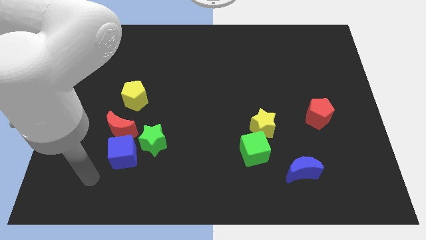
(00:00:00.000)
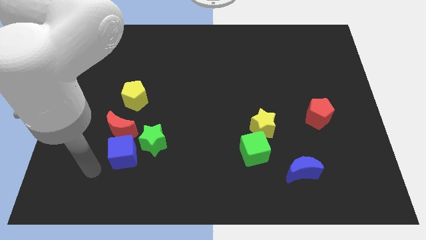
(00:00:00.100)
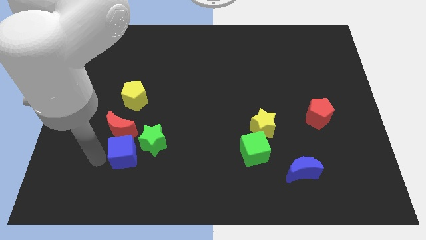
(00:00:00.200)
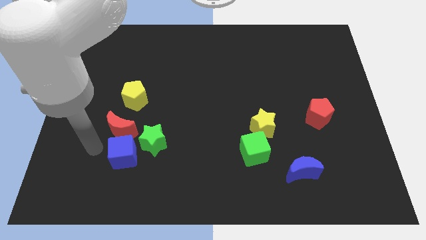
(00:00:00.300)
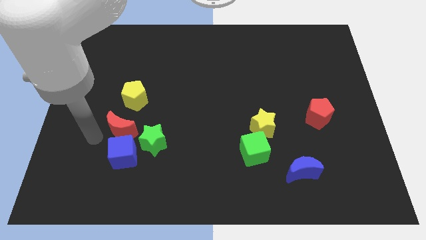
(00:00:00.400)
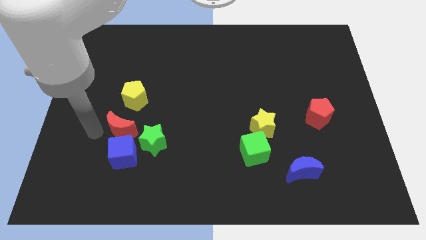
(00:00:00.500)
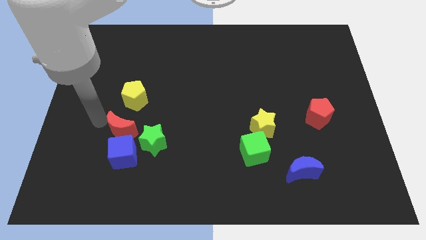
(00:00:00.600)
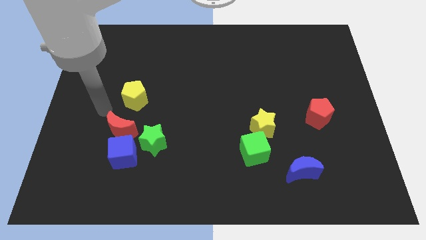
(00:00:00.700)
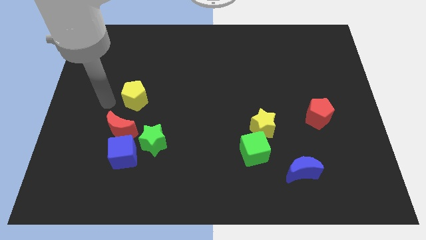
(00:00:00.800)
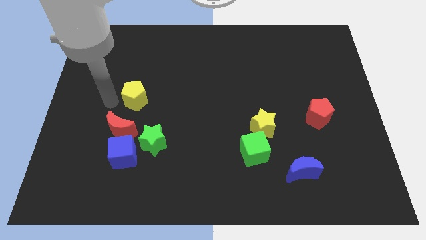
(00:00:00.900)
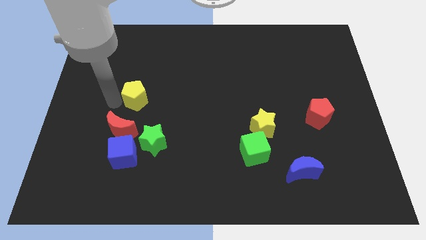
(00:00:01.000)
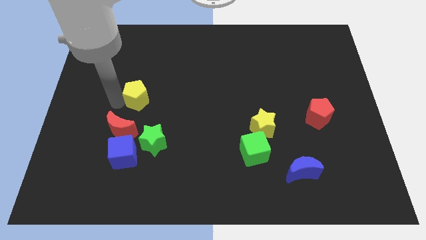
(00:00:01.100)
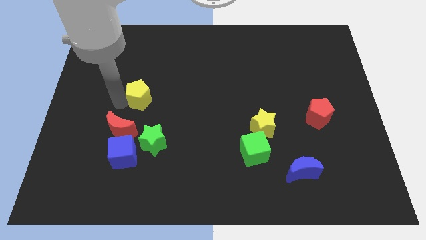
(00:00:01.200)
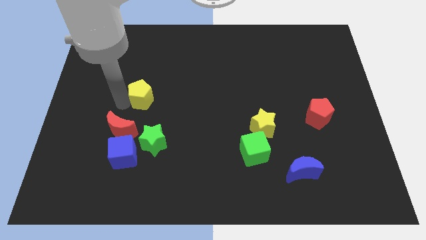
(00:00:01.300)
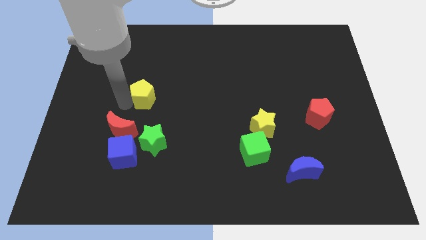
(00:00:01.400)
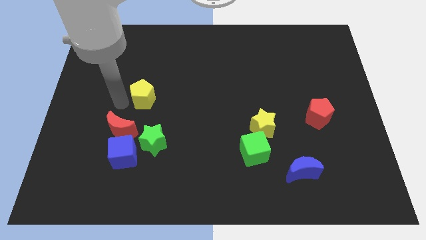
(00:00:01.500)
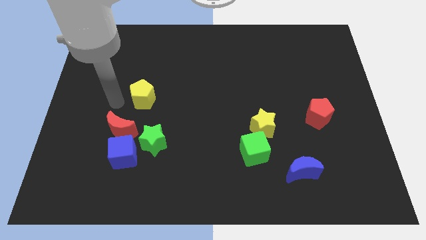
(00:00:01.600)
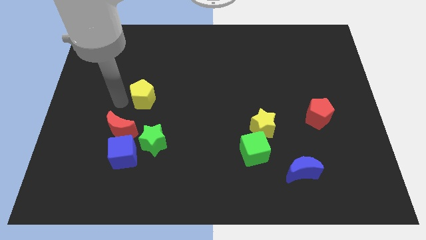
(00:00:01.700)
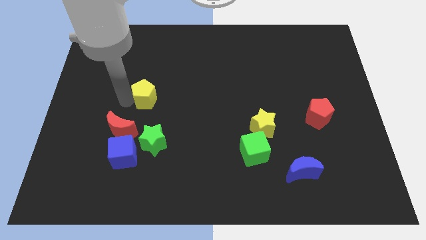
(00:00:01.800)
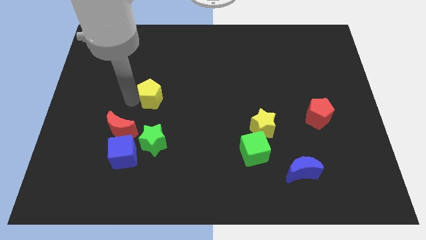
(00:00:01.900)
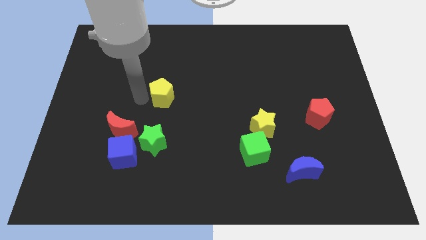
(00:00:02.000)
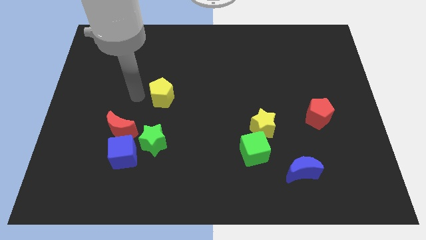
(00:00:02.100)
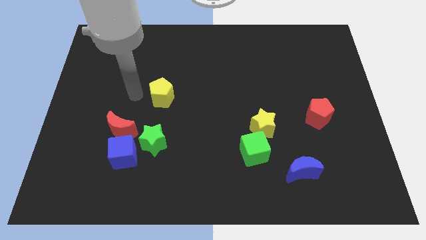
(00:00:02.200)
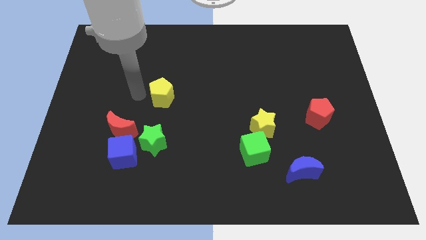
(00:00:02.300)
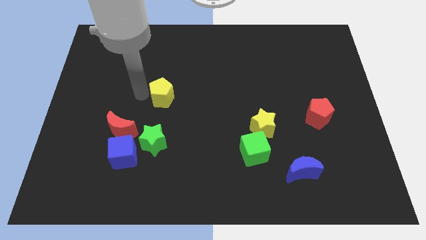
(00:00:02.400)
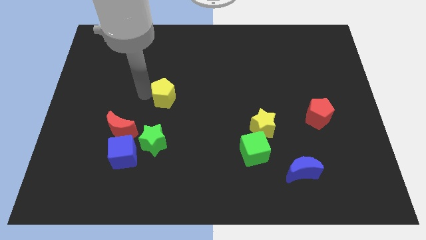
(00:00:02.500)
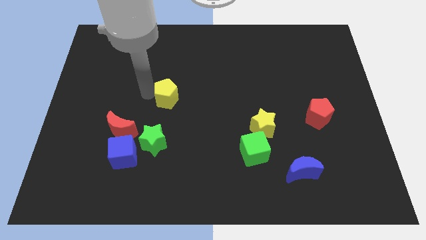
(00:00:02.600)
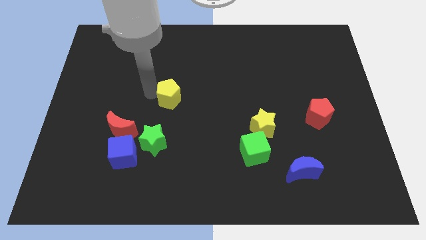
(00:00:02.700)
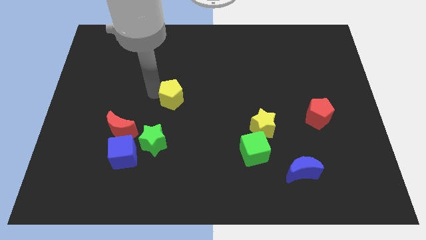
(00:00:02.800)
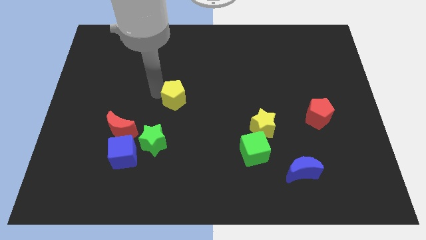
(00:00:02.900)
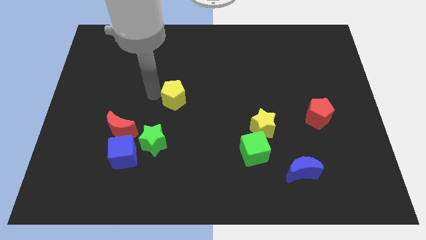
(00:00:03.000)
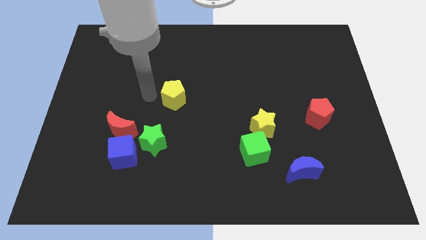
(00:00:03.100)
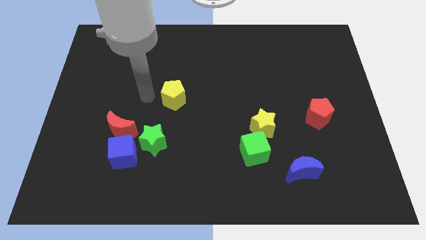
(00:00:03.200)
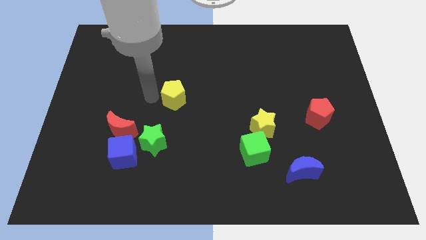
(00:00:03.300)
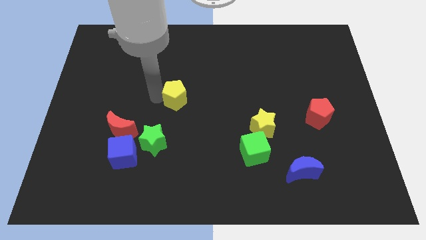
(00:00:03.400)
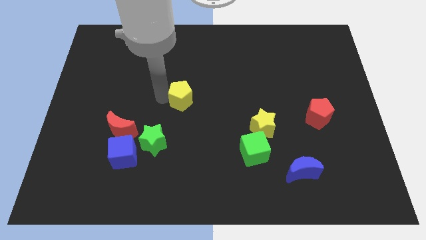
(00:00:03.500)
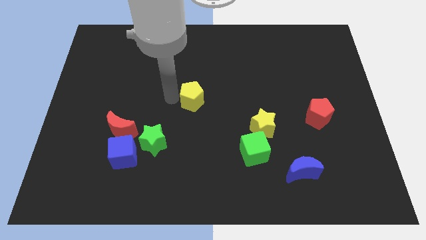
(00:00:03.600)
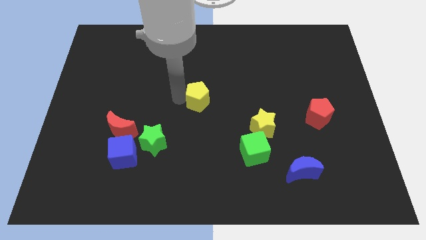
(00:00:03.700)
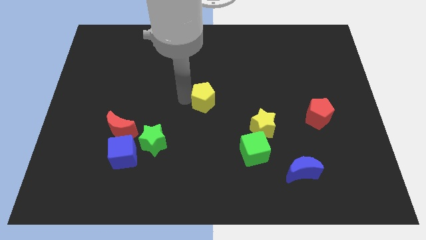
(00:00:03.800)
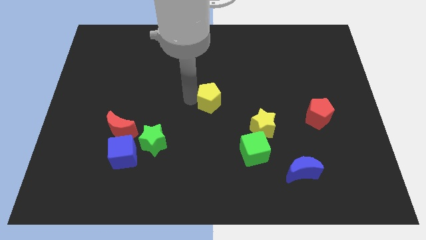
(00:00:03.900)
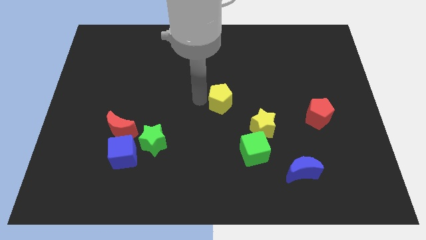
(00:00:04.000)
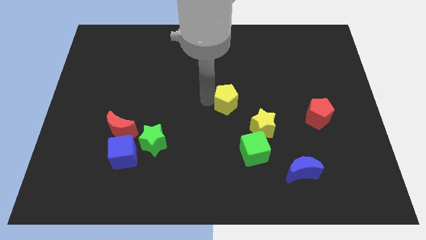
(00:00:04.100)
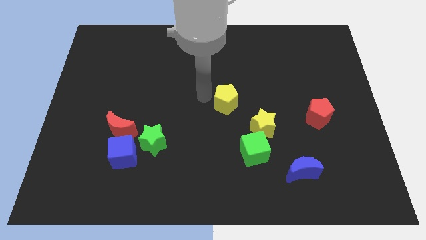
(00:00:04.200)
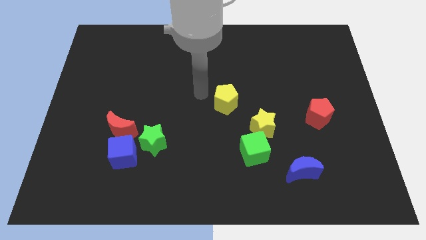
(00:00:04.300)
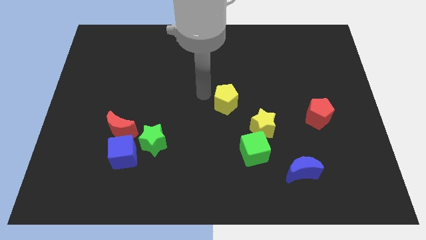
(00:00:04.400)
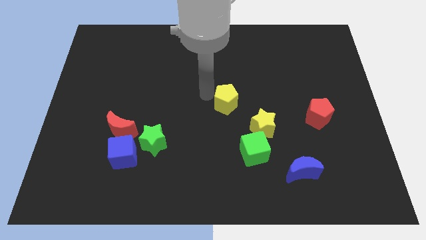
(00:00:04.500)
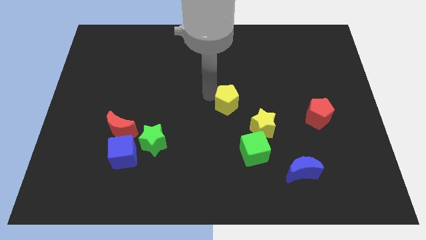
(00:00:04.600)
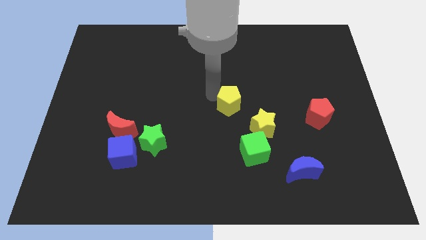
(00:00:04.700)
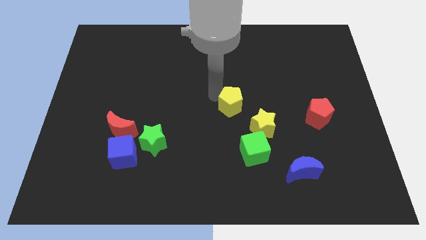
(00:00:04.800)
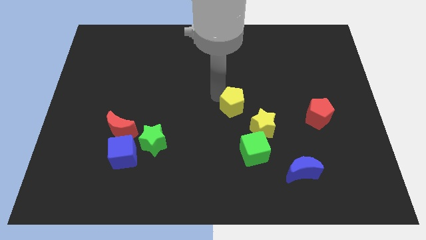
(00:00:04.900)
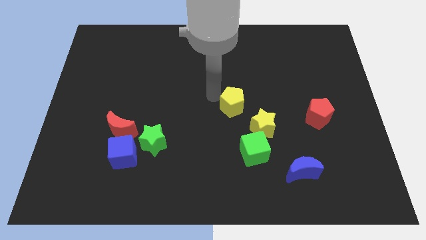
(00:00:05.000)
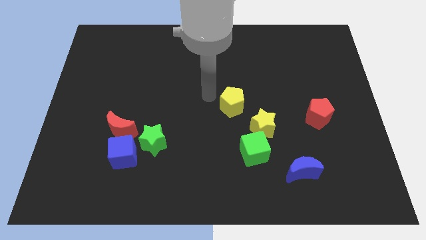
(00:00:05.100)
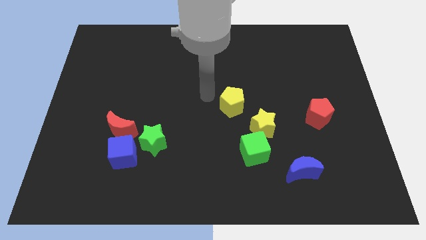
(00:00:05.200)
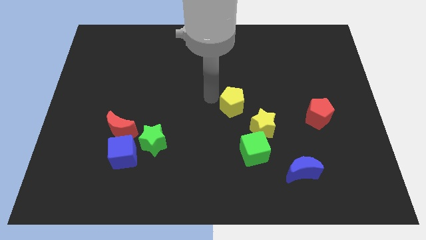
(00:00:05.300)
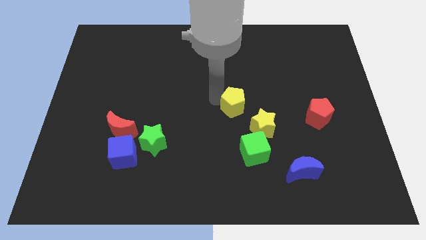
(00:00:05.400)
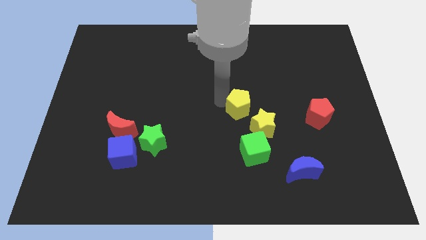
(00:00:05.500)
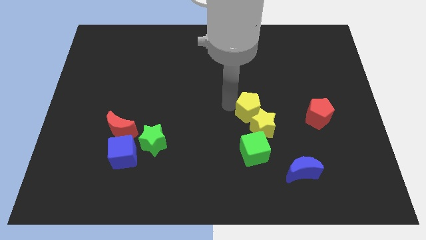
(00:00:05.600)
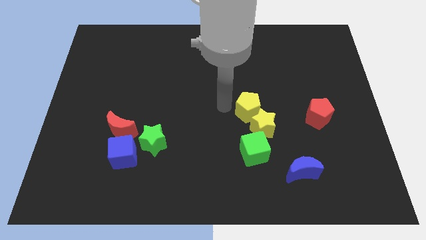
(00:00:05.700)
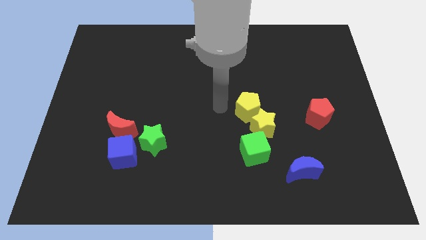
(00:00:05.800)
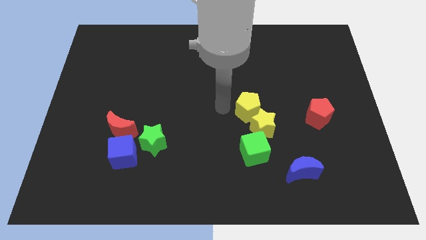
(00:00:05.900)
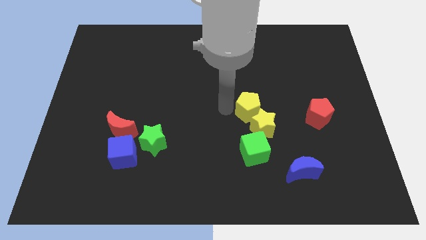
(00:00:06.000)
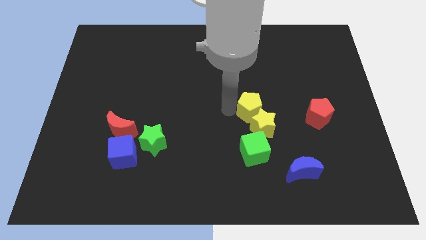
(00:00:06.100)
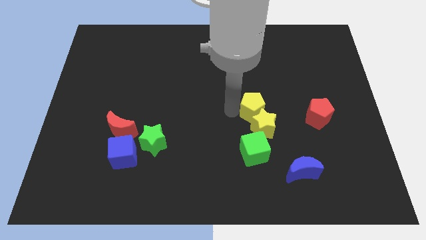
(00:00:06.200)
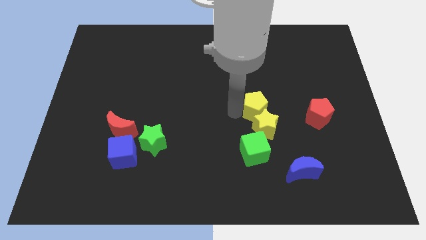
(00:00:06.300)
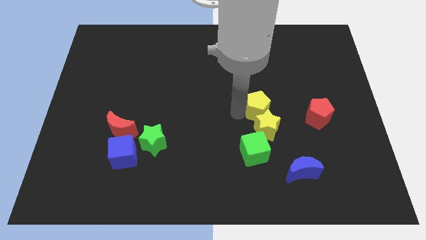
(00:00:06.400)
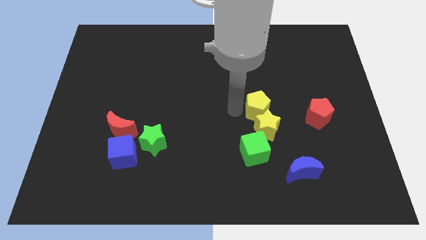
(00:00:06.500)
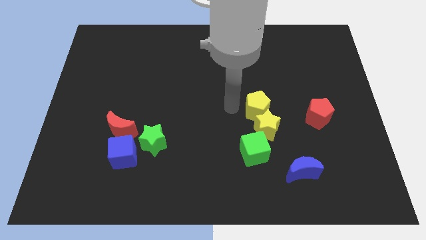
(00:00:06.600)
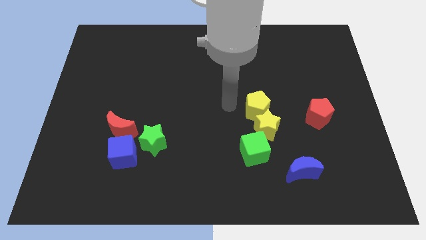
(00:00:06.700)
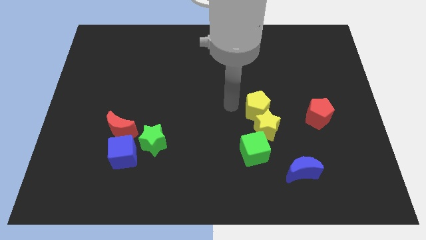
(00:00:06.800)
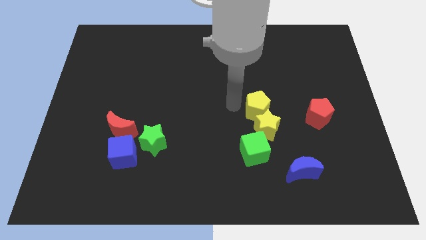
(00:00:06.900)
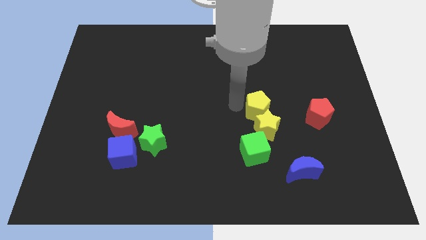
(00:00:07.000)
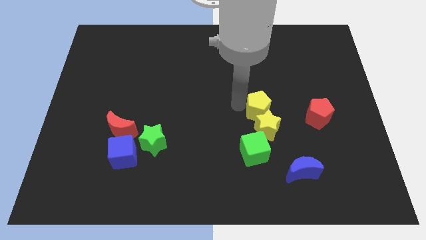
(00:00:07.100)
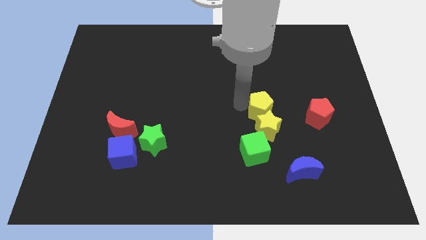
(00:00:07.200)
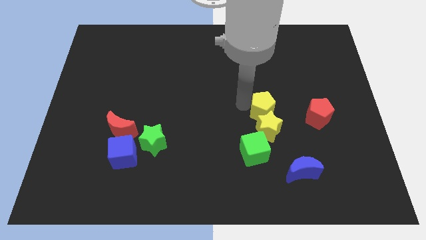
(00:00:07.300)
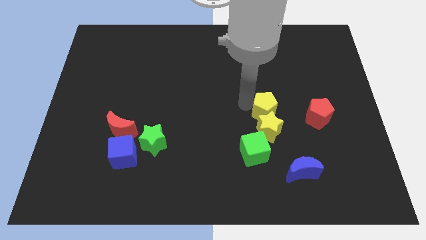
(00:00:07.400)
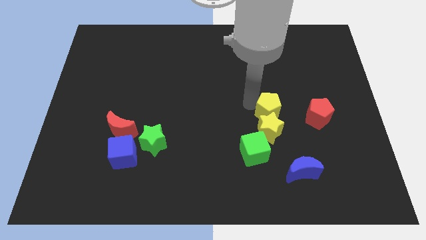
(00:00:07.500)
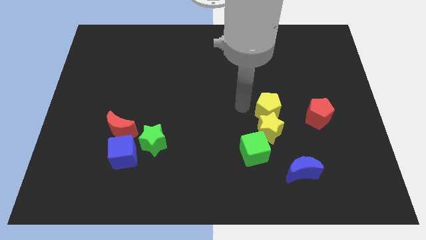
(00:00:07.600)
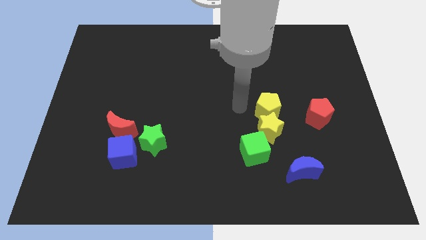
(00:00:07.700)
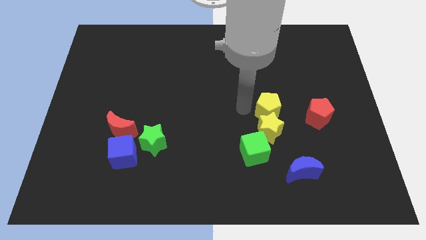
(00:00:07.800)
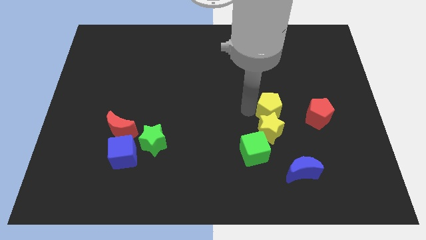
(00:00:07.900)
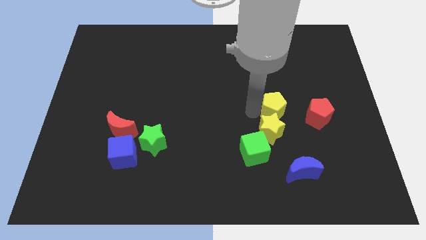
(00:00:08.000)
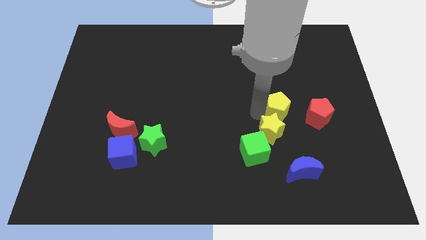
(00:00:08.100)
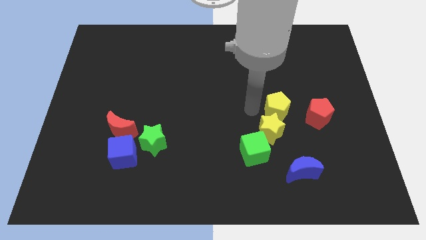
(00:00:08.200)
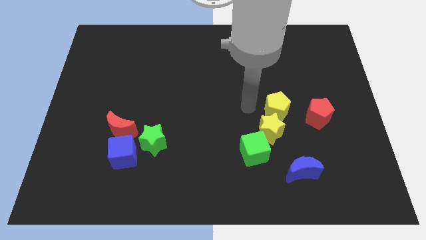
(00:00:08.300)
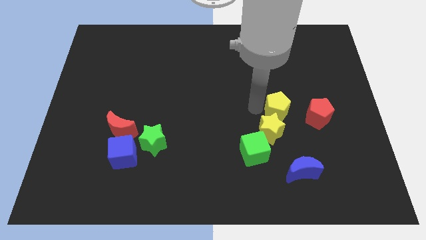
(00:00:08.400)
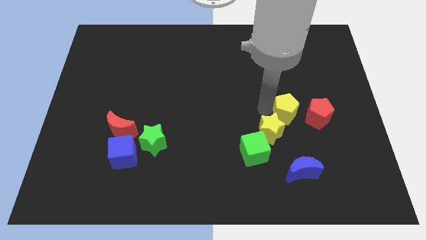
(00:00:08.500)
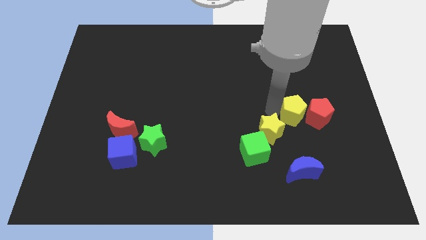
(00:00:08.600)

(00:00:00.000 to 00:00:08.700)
move the yellow pentagon towards the red pentagon
